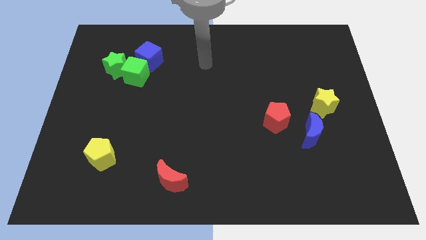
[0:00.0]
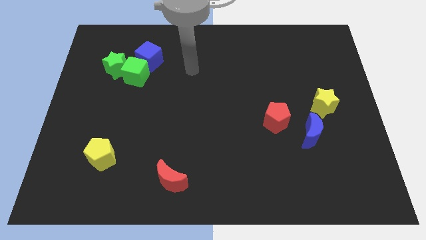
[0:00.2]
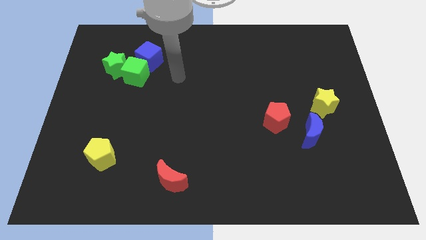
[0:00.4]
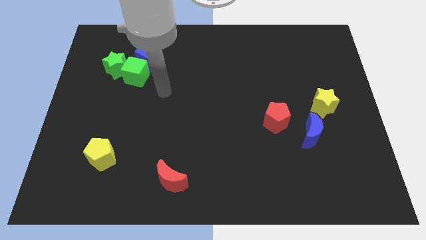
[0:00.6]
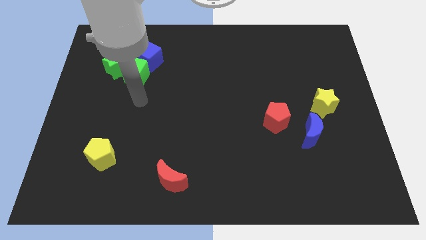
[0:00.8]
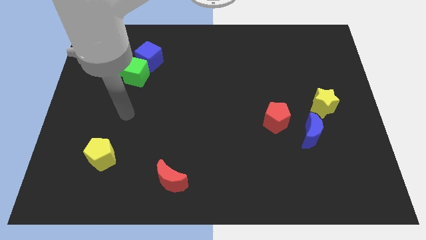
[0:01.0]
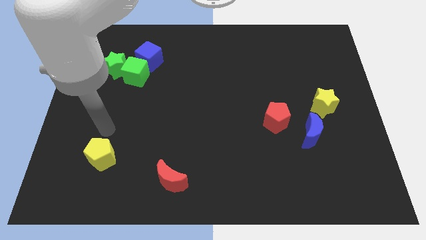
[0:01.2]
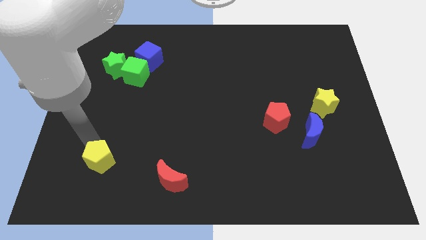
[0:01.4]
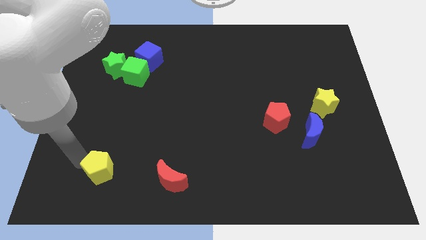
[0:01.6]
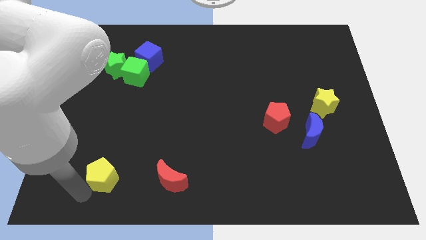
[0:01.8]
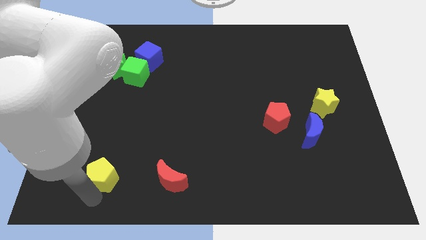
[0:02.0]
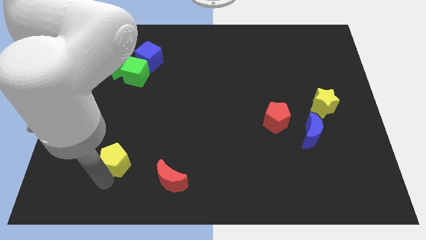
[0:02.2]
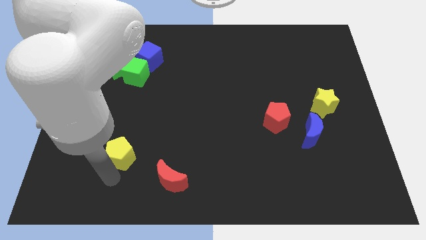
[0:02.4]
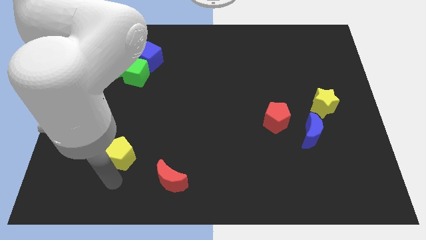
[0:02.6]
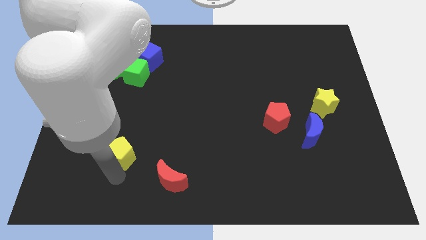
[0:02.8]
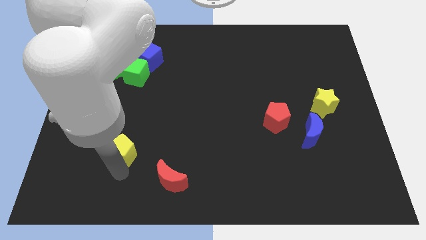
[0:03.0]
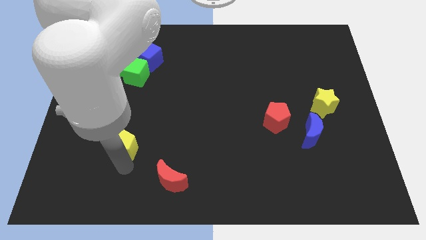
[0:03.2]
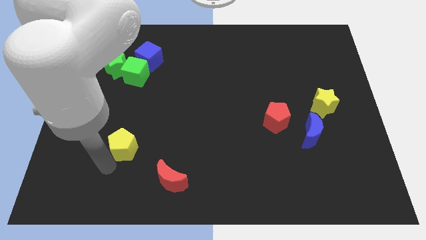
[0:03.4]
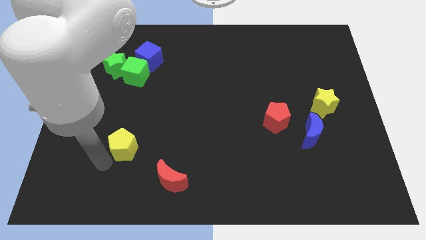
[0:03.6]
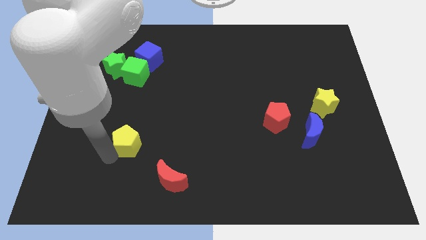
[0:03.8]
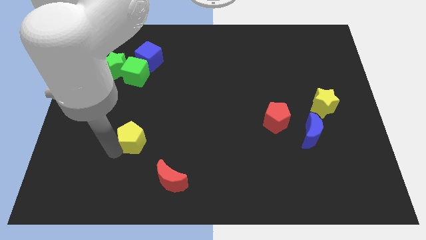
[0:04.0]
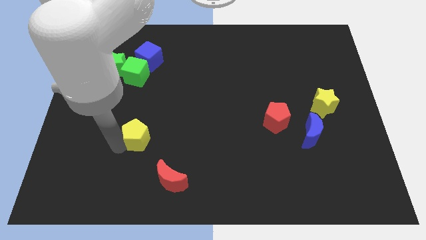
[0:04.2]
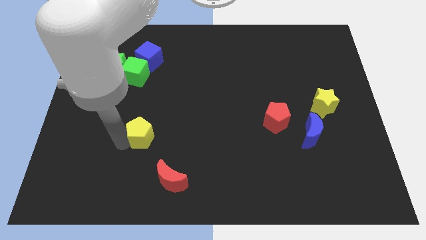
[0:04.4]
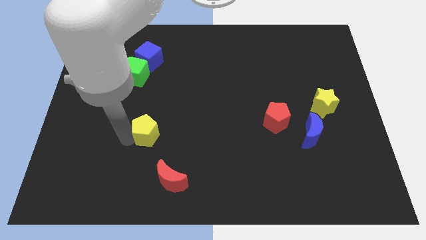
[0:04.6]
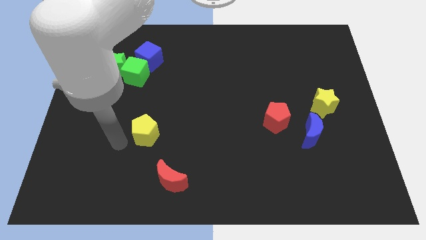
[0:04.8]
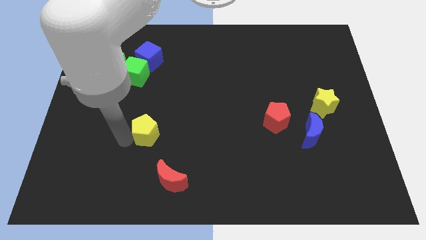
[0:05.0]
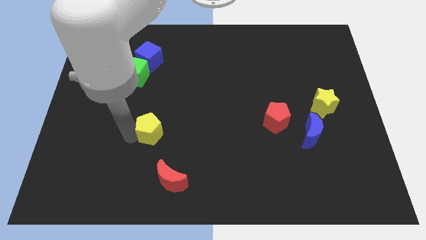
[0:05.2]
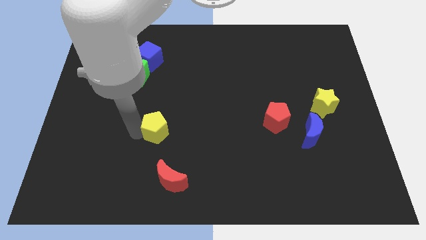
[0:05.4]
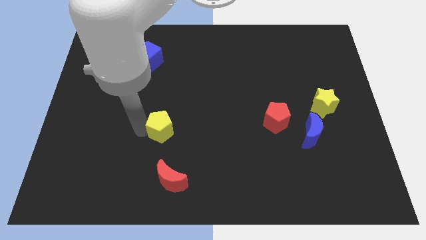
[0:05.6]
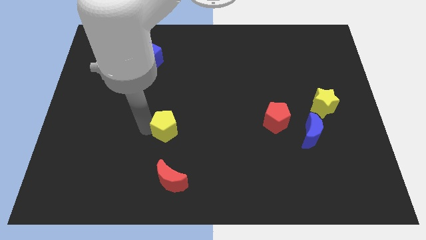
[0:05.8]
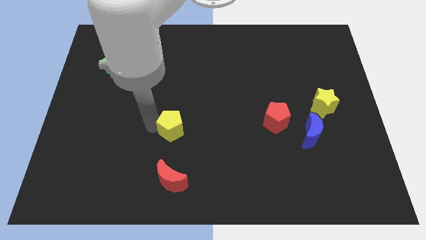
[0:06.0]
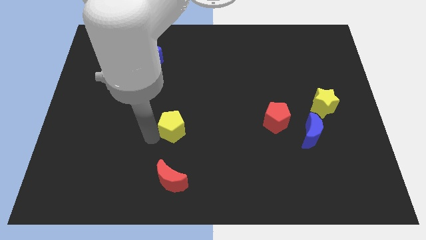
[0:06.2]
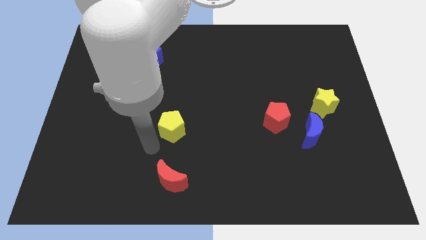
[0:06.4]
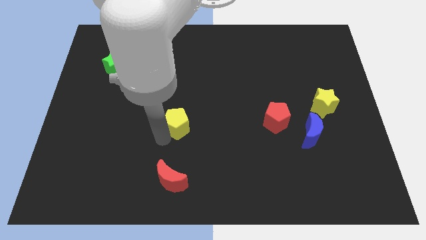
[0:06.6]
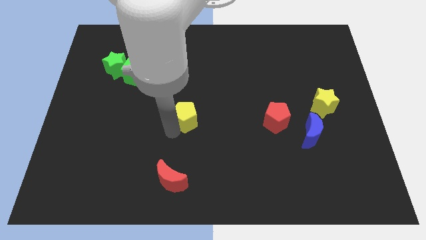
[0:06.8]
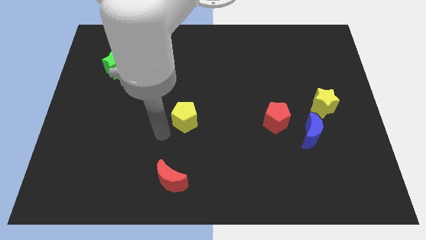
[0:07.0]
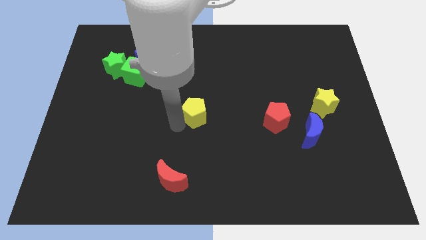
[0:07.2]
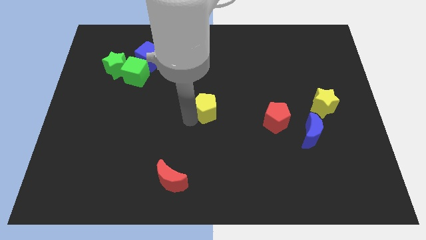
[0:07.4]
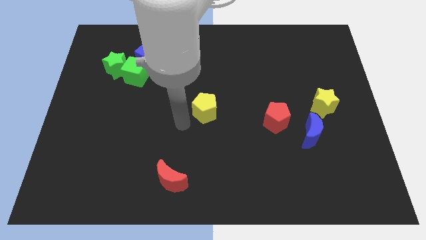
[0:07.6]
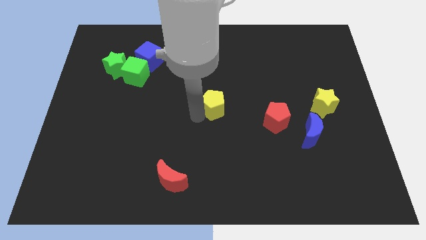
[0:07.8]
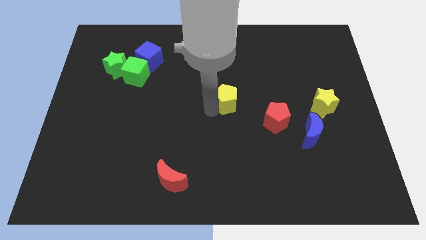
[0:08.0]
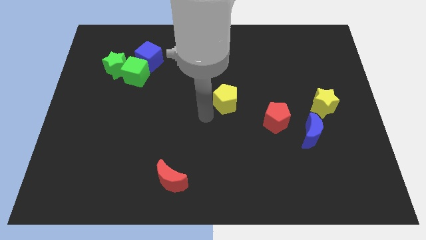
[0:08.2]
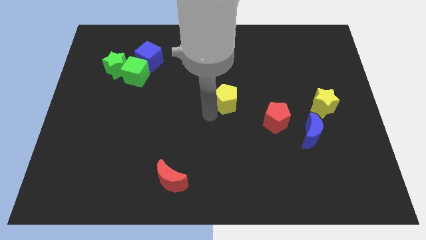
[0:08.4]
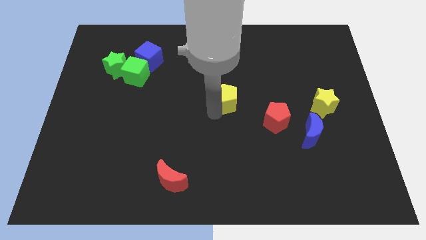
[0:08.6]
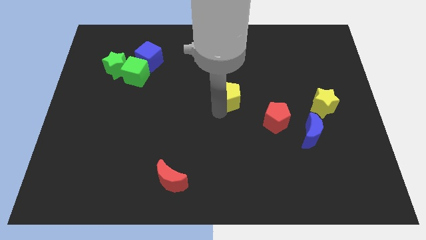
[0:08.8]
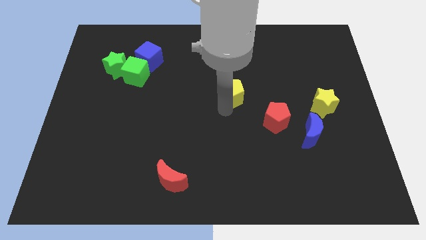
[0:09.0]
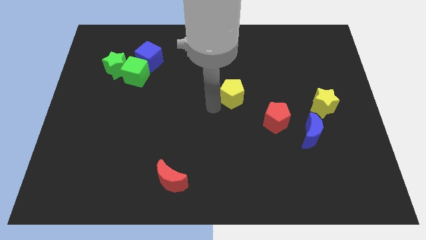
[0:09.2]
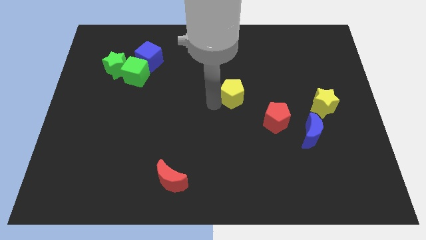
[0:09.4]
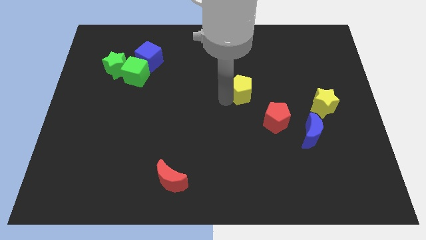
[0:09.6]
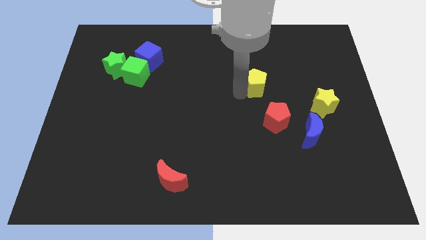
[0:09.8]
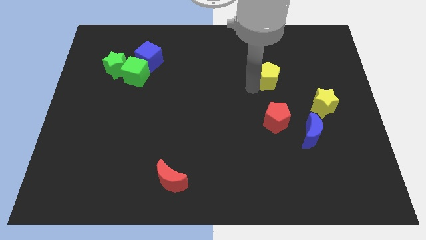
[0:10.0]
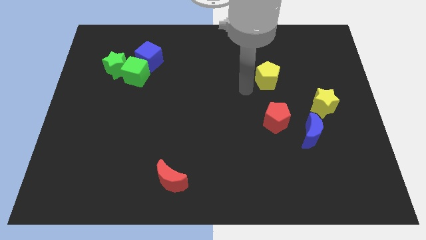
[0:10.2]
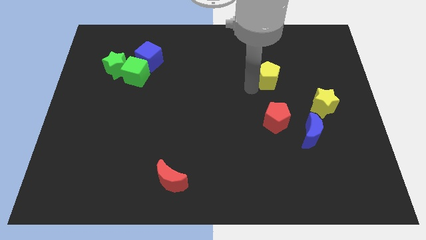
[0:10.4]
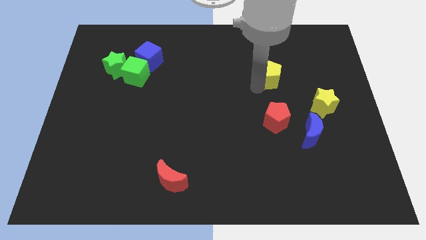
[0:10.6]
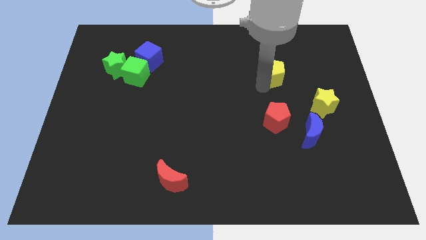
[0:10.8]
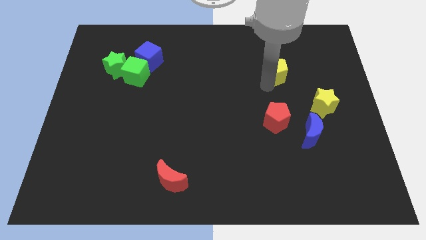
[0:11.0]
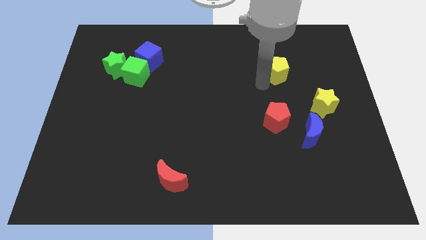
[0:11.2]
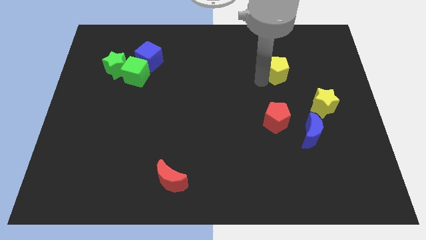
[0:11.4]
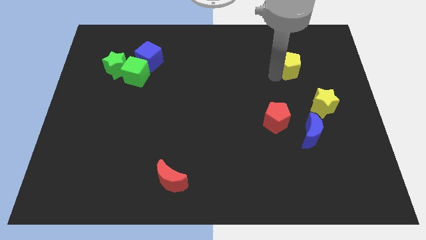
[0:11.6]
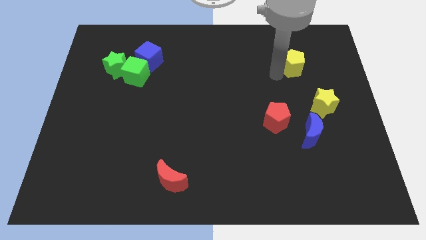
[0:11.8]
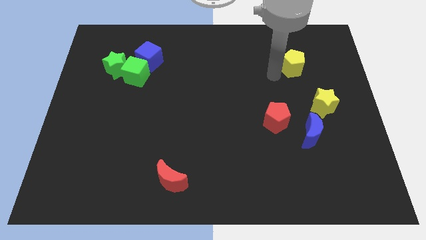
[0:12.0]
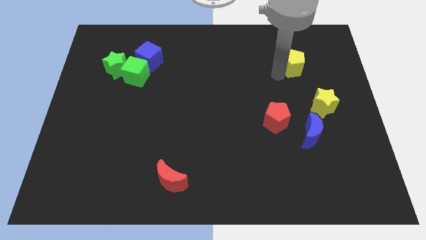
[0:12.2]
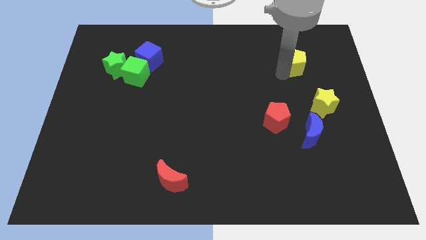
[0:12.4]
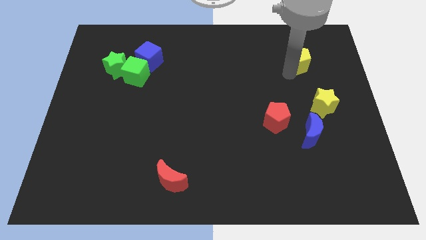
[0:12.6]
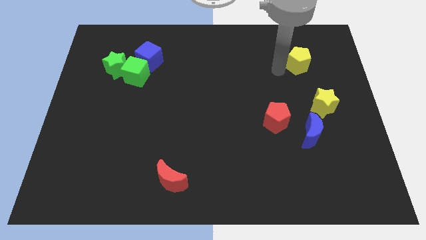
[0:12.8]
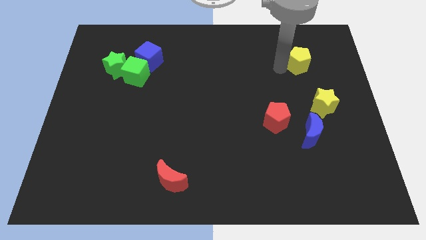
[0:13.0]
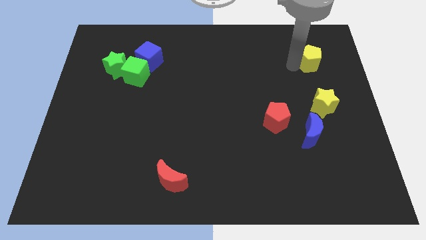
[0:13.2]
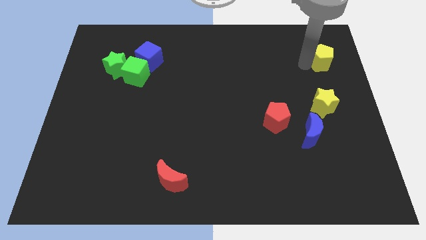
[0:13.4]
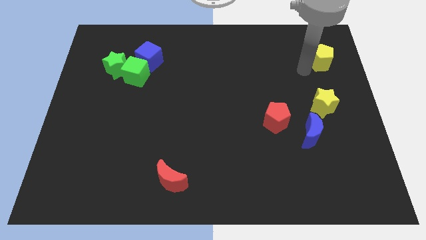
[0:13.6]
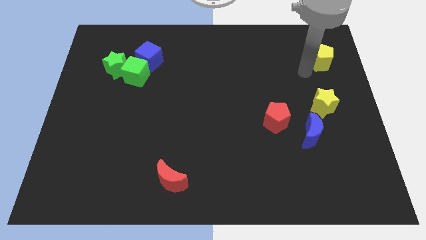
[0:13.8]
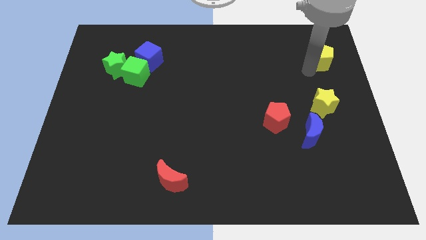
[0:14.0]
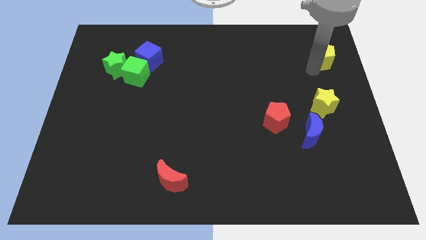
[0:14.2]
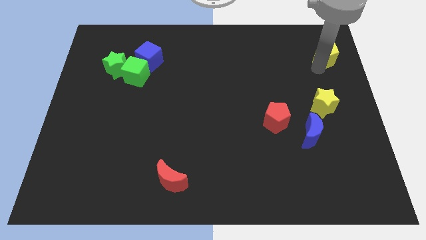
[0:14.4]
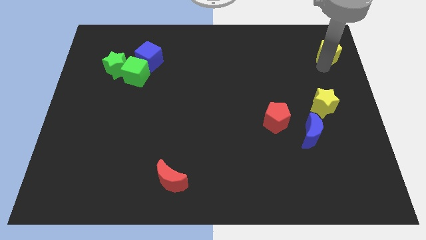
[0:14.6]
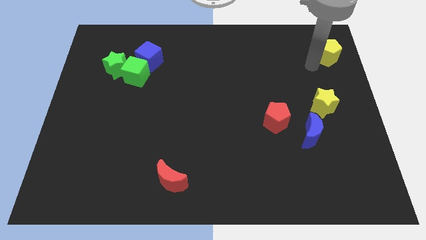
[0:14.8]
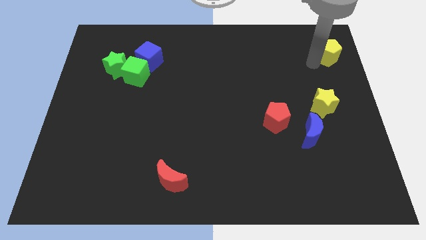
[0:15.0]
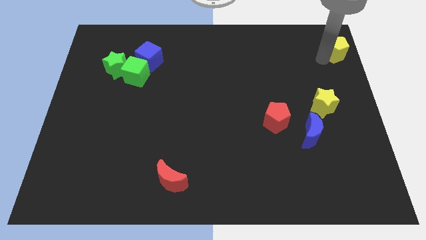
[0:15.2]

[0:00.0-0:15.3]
push the yellow pentagon to the top right of the board
